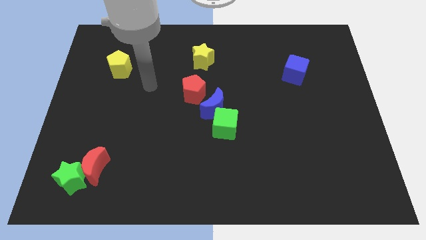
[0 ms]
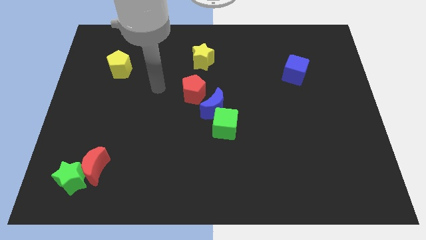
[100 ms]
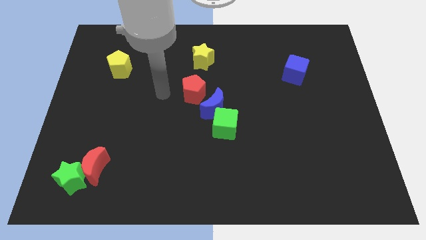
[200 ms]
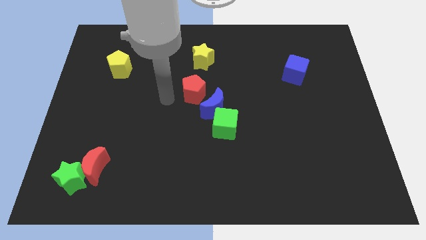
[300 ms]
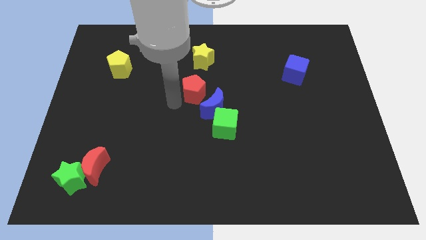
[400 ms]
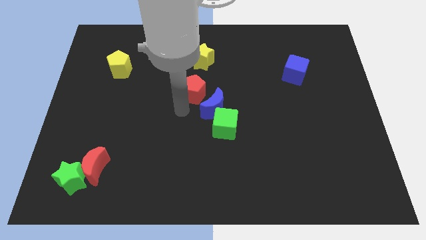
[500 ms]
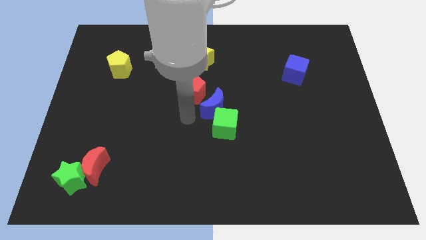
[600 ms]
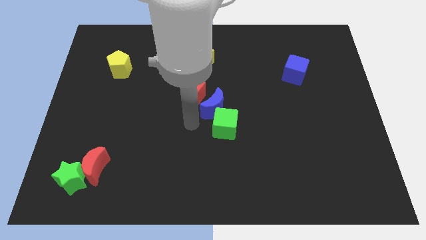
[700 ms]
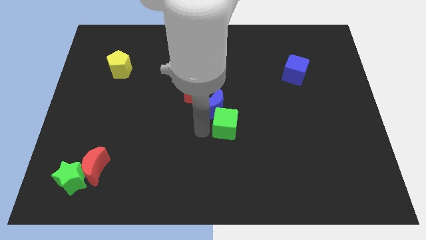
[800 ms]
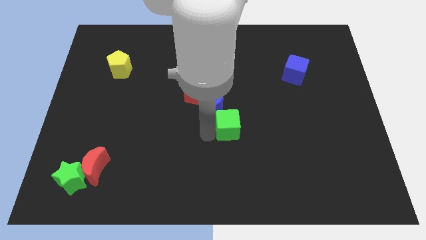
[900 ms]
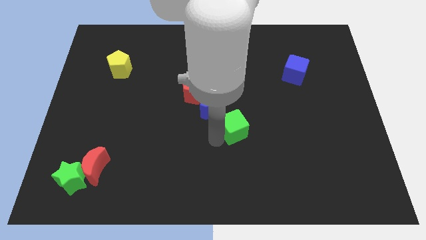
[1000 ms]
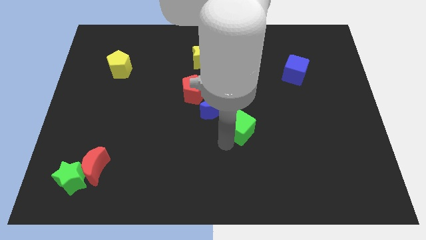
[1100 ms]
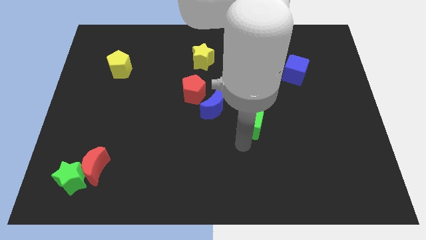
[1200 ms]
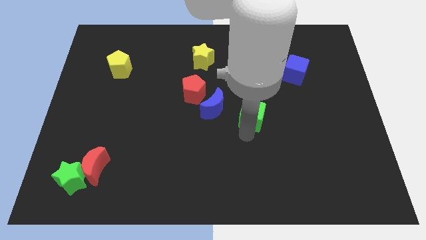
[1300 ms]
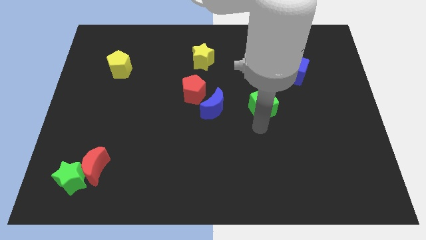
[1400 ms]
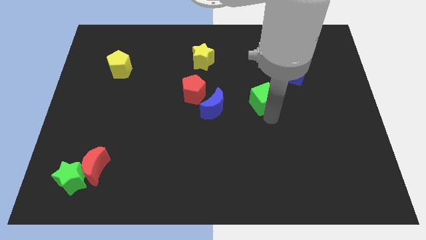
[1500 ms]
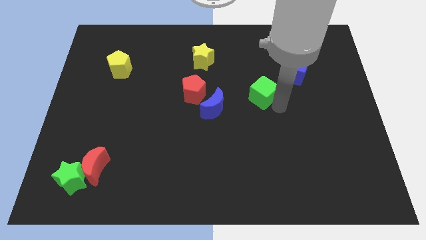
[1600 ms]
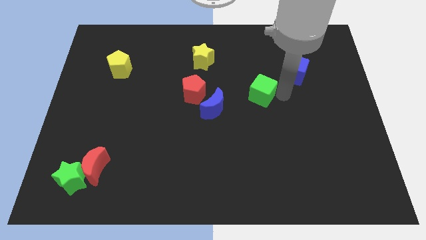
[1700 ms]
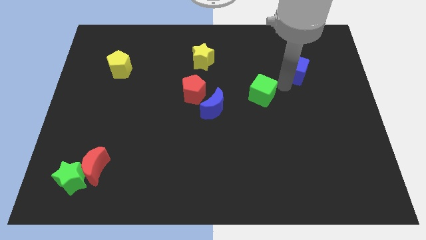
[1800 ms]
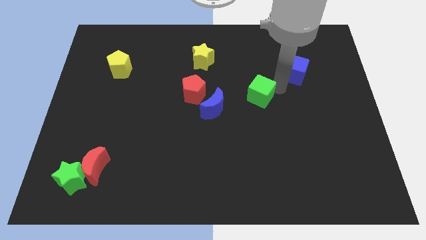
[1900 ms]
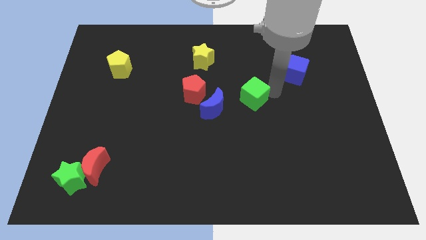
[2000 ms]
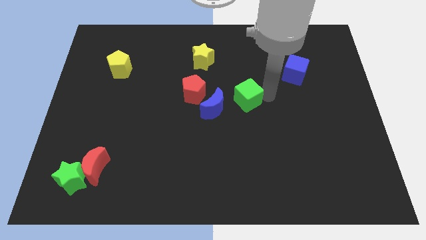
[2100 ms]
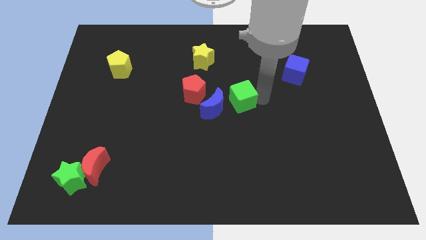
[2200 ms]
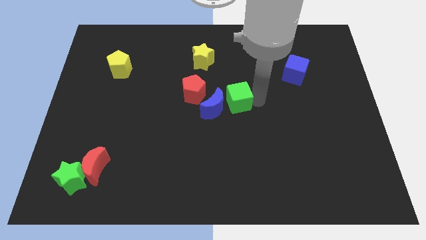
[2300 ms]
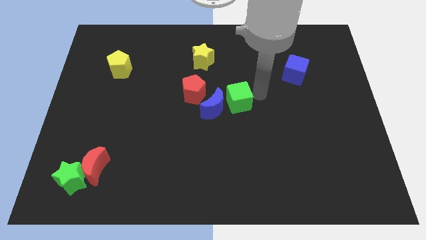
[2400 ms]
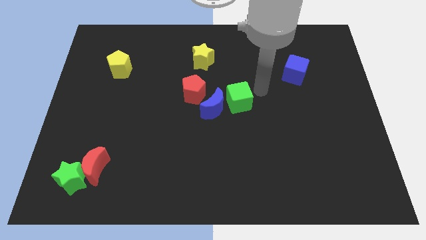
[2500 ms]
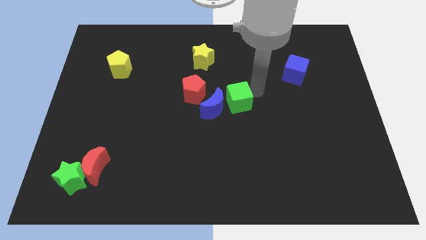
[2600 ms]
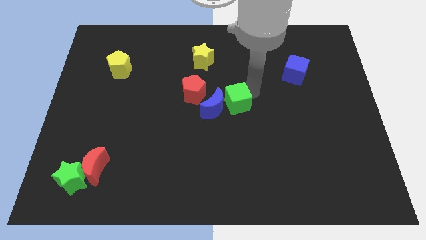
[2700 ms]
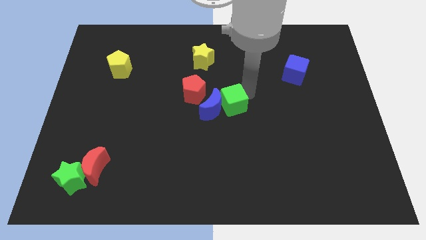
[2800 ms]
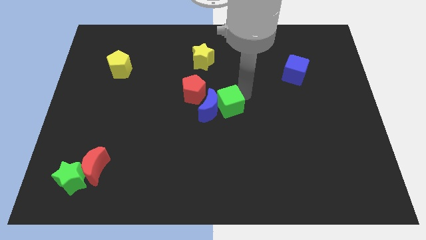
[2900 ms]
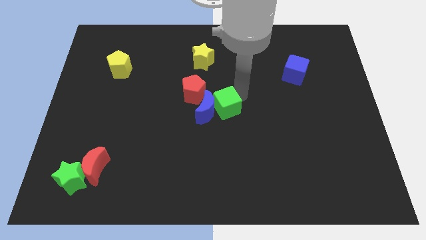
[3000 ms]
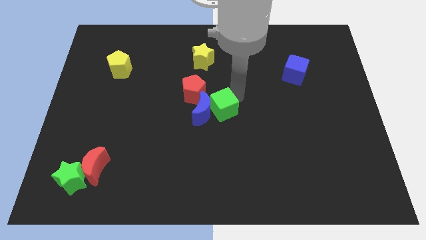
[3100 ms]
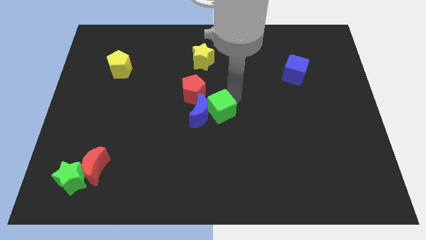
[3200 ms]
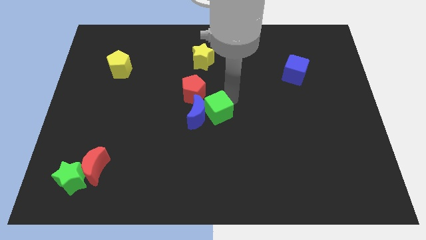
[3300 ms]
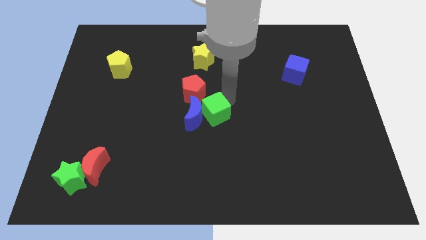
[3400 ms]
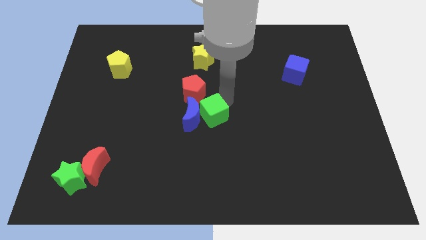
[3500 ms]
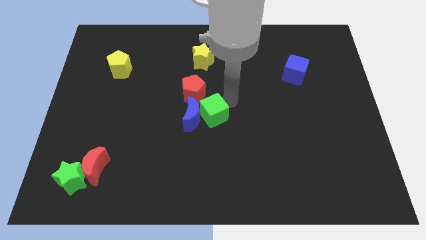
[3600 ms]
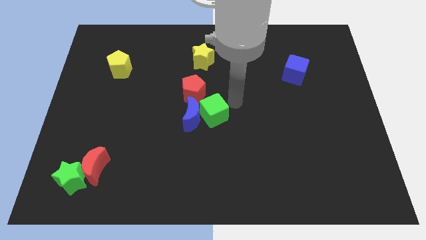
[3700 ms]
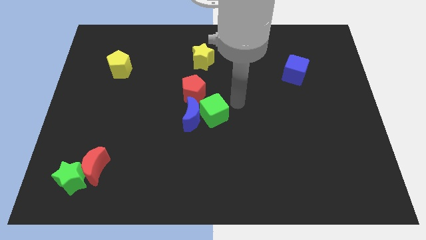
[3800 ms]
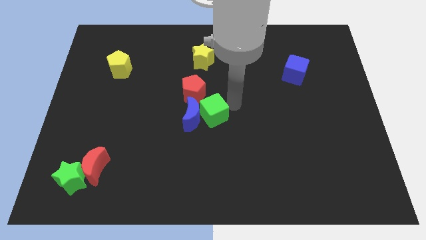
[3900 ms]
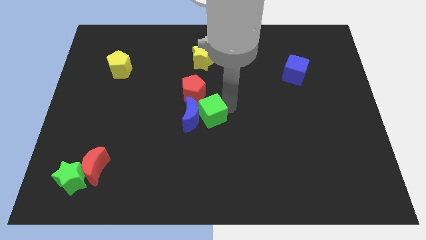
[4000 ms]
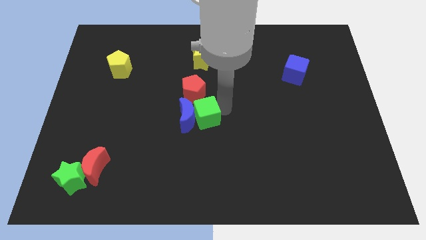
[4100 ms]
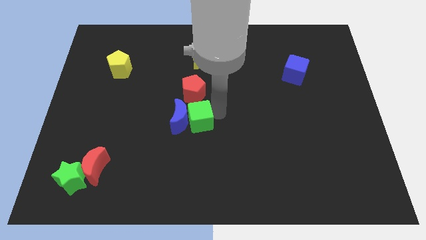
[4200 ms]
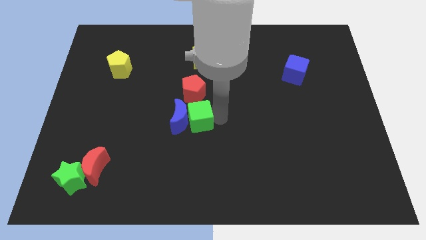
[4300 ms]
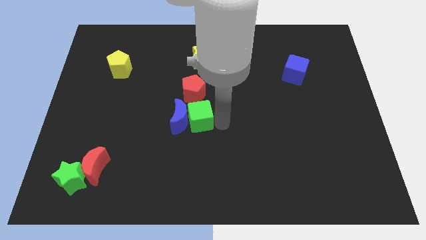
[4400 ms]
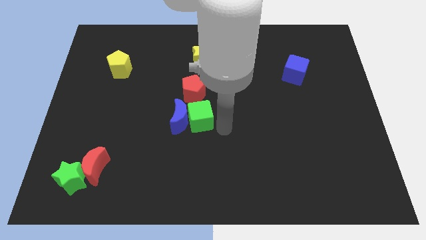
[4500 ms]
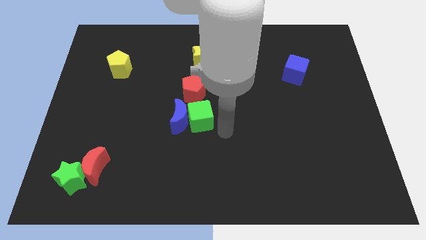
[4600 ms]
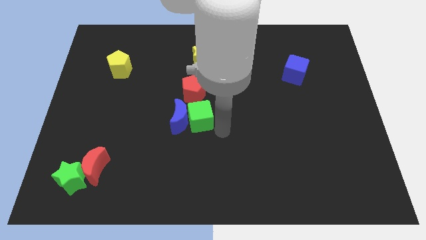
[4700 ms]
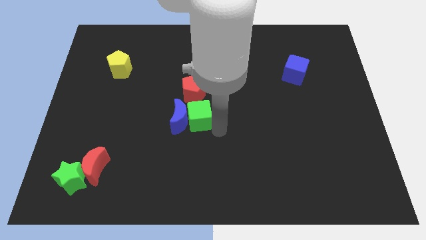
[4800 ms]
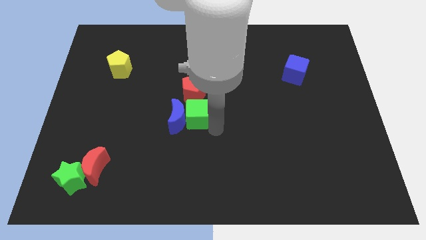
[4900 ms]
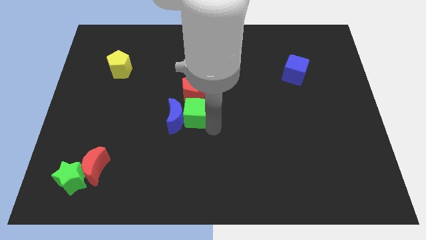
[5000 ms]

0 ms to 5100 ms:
slightly slide the green cube up and left diagonally

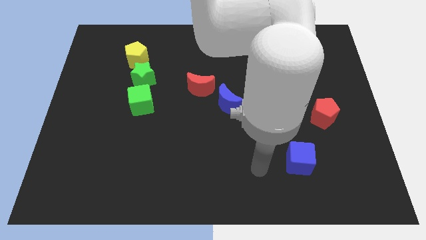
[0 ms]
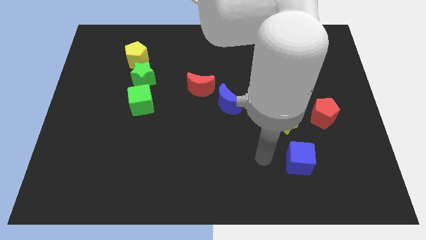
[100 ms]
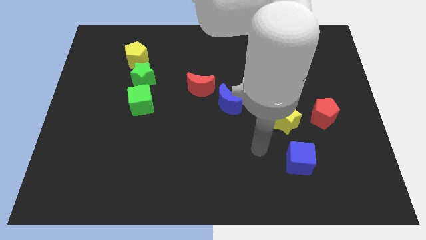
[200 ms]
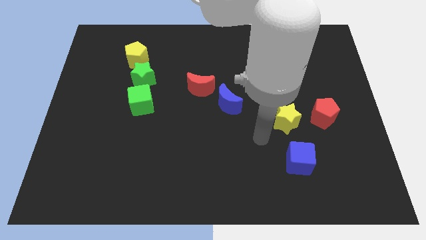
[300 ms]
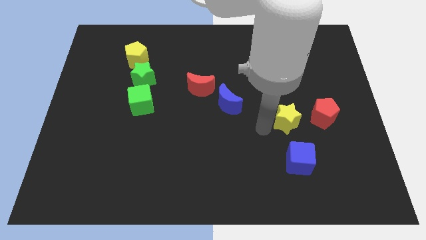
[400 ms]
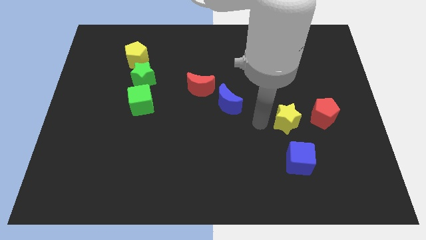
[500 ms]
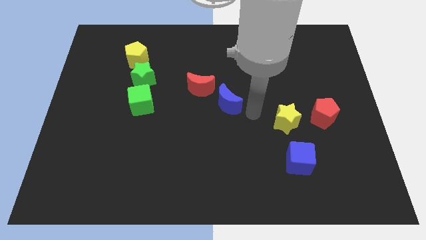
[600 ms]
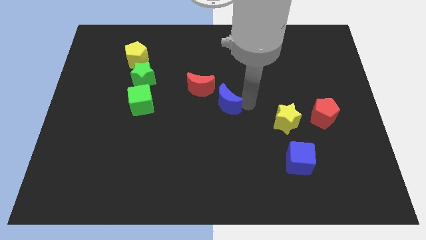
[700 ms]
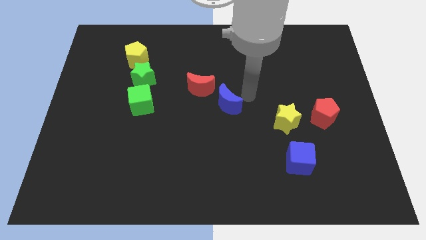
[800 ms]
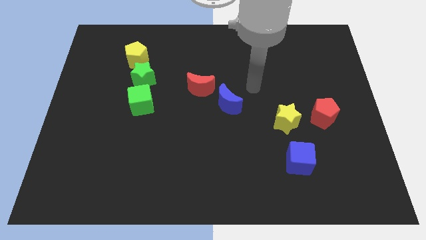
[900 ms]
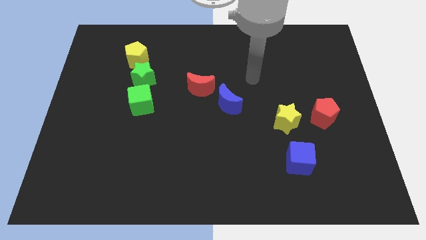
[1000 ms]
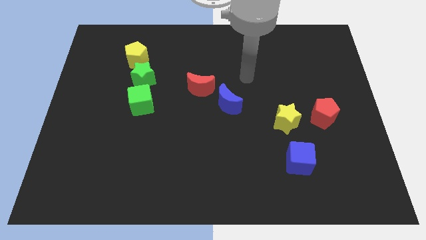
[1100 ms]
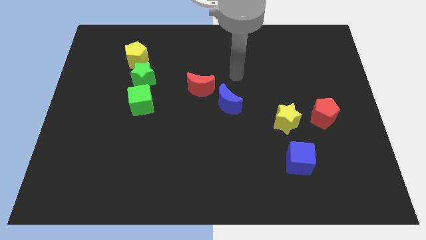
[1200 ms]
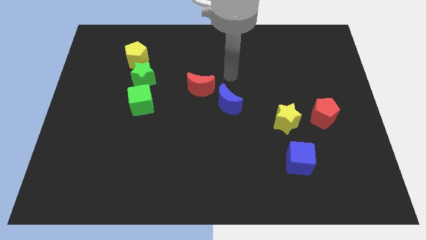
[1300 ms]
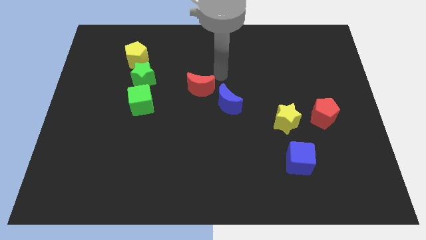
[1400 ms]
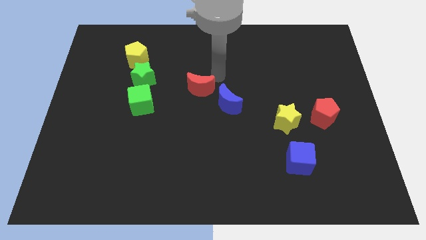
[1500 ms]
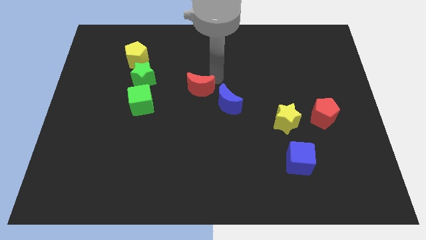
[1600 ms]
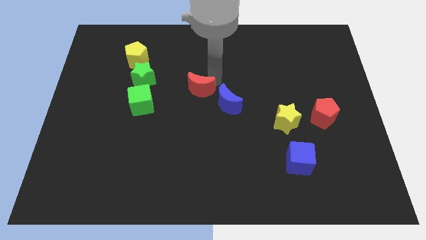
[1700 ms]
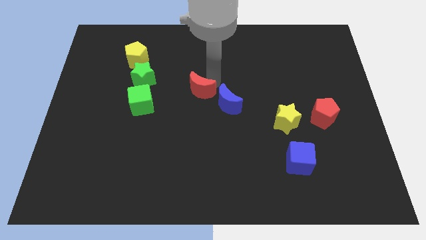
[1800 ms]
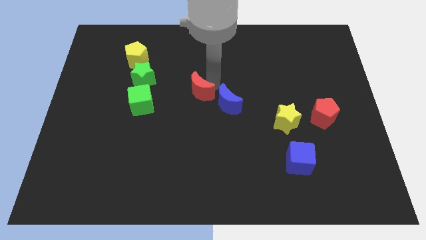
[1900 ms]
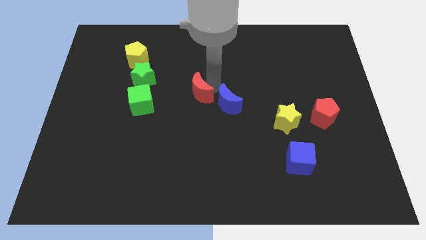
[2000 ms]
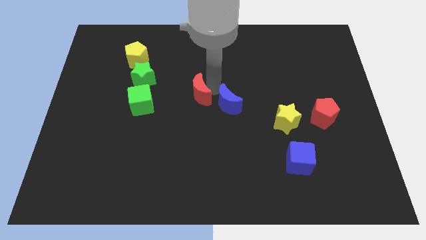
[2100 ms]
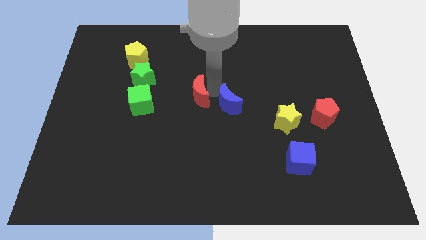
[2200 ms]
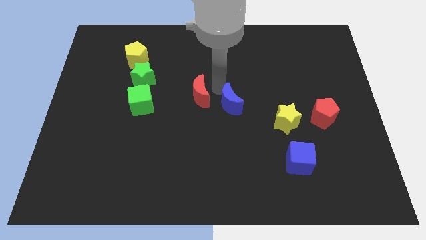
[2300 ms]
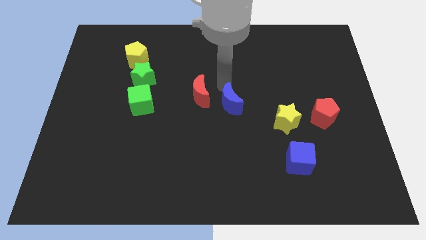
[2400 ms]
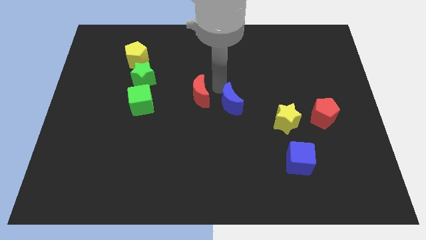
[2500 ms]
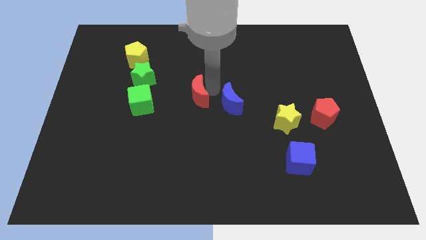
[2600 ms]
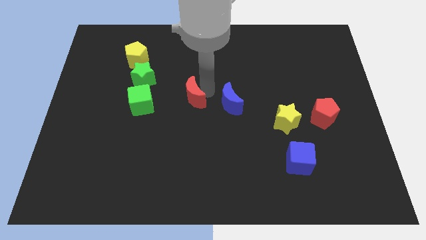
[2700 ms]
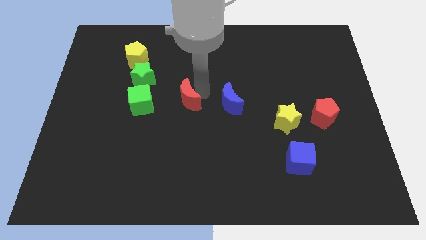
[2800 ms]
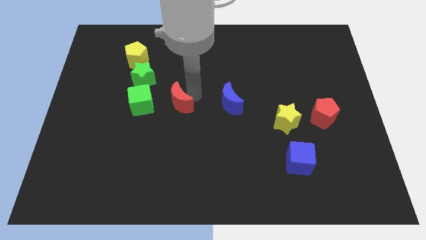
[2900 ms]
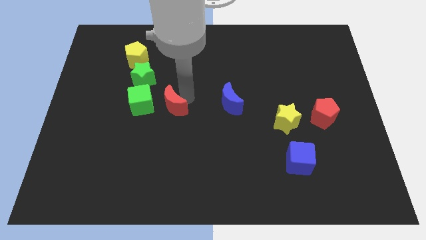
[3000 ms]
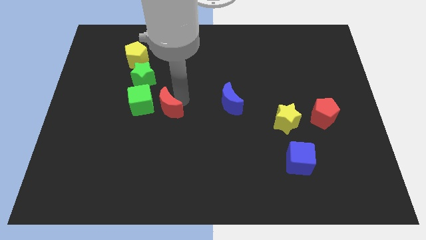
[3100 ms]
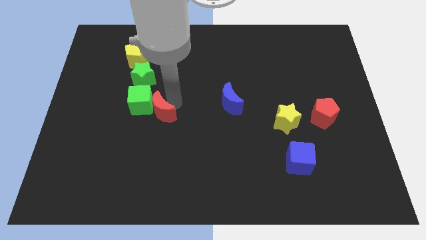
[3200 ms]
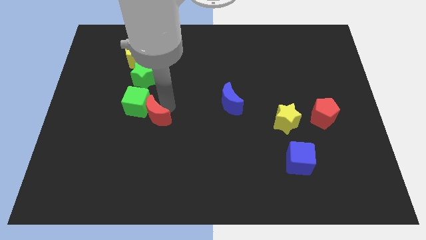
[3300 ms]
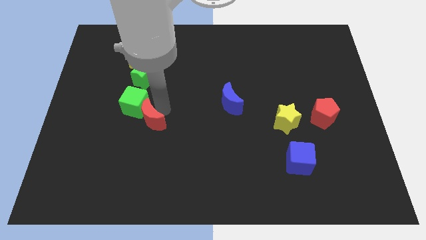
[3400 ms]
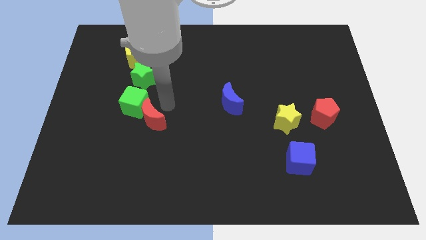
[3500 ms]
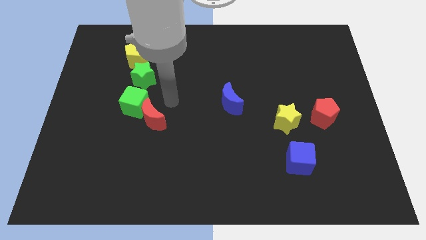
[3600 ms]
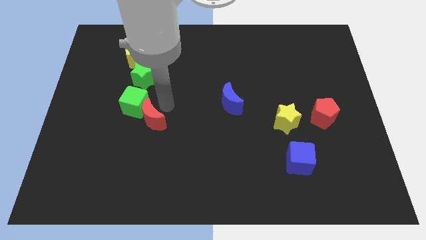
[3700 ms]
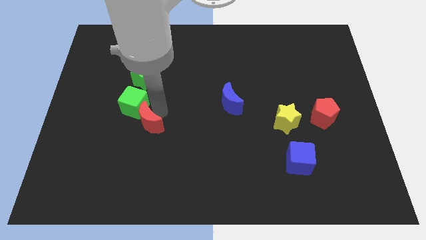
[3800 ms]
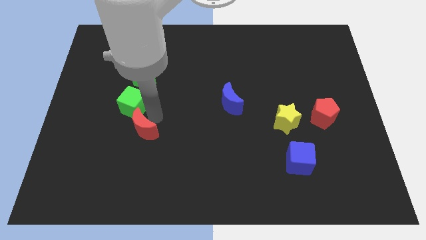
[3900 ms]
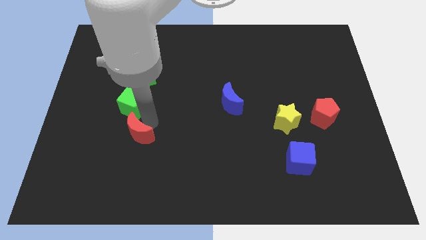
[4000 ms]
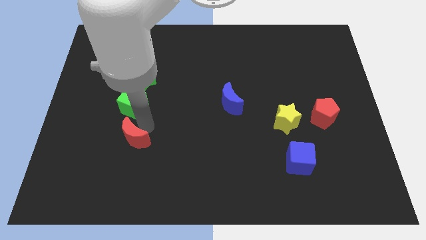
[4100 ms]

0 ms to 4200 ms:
slide the red moon down and then left
